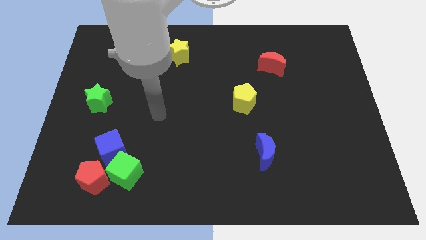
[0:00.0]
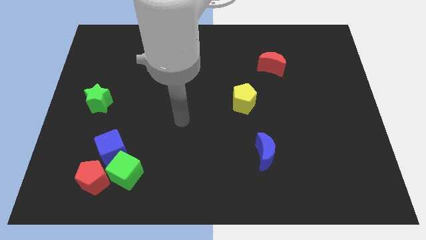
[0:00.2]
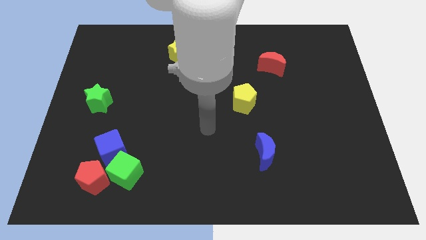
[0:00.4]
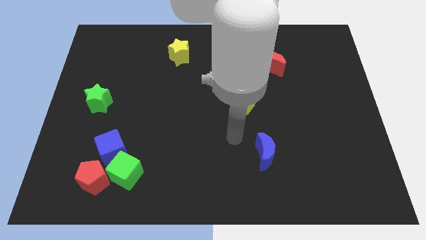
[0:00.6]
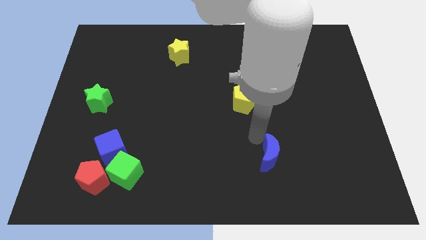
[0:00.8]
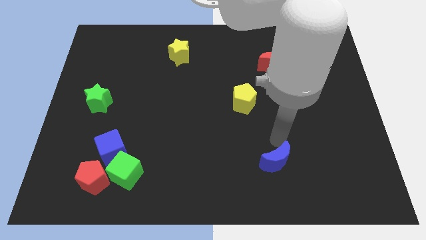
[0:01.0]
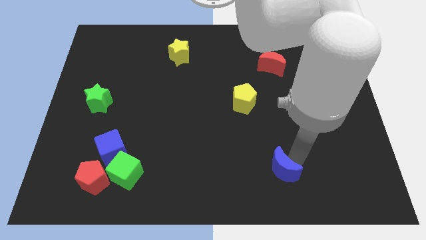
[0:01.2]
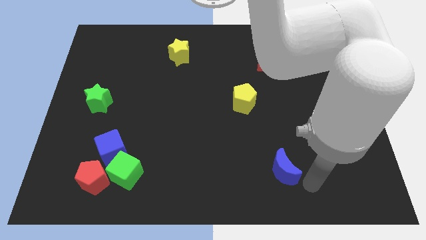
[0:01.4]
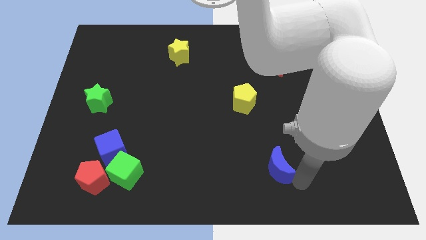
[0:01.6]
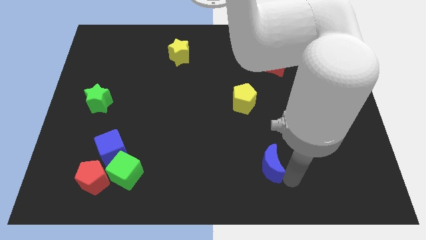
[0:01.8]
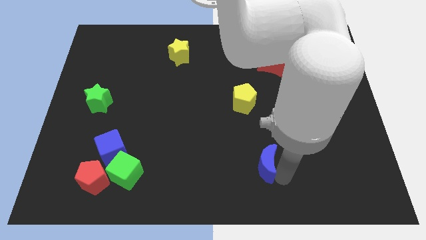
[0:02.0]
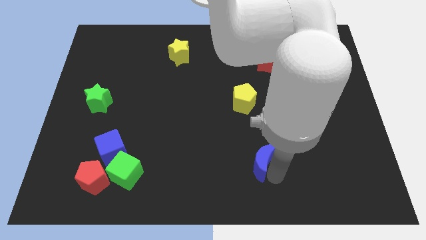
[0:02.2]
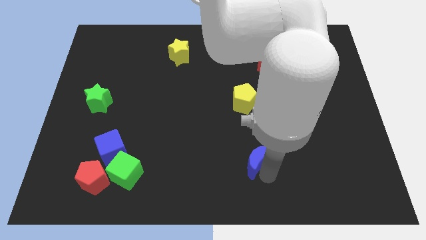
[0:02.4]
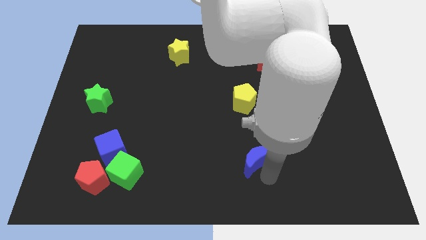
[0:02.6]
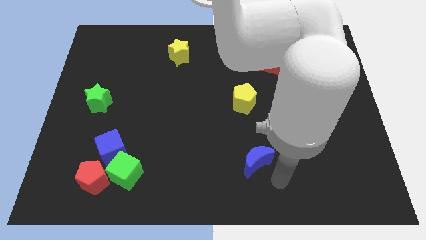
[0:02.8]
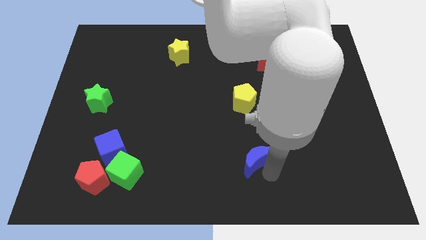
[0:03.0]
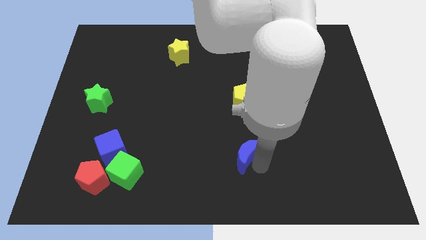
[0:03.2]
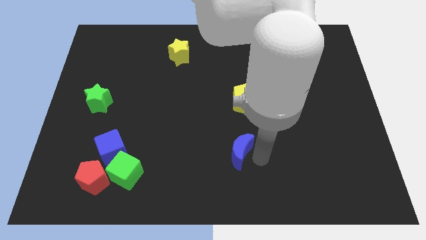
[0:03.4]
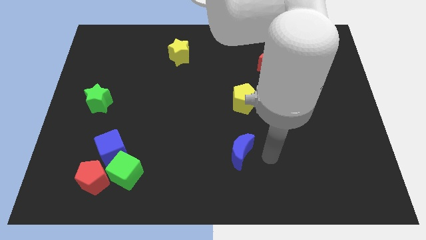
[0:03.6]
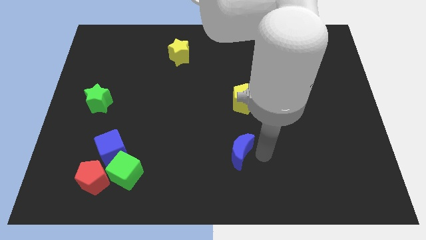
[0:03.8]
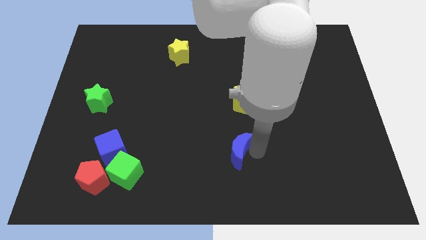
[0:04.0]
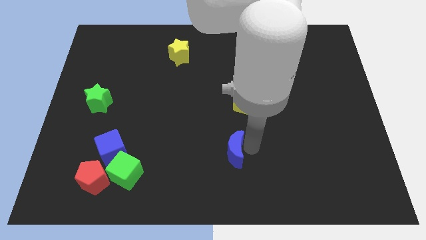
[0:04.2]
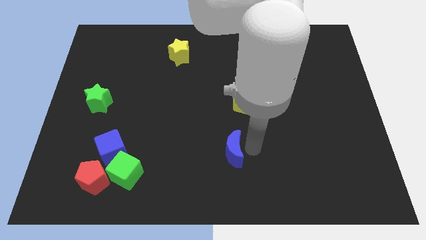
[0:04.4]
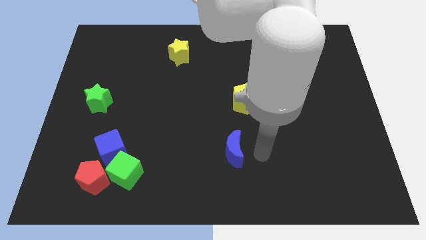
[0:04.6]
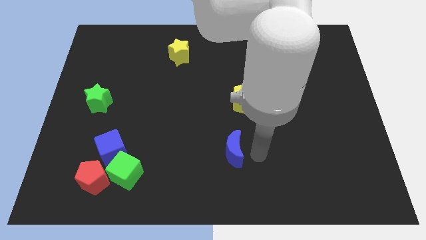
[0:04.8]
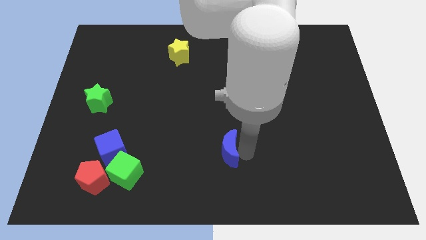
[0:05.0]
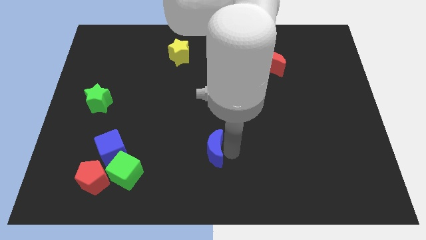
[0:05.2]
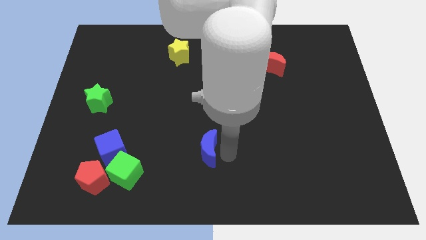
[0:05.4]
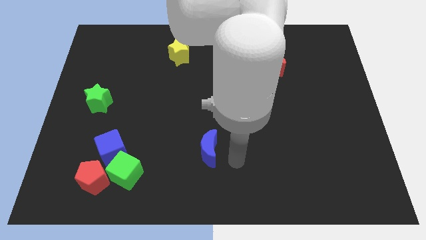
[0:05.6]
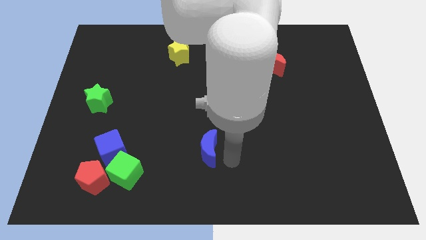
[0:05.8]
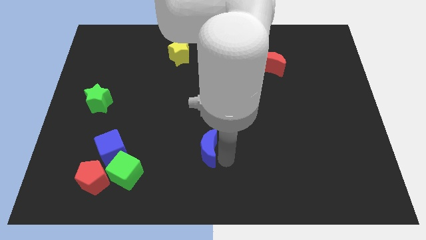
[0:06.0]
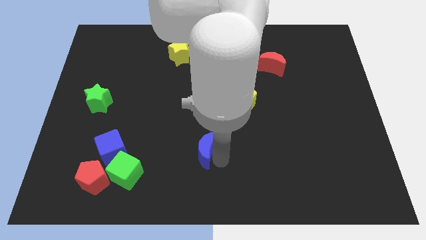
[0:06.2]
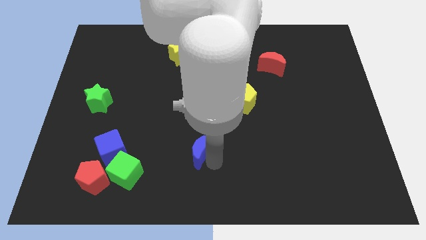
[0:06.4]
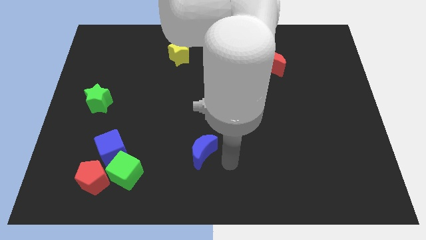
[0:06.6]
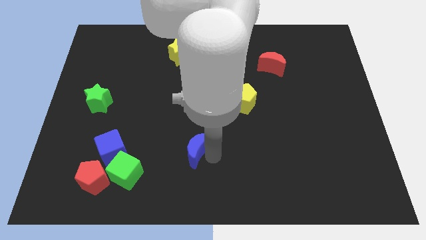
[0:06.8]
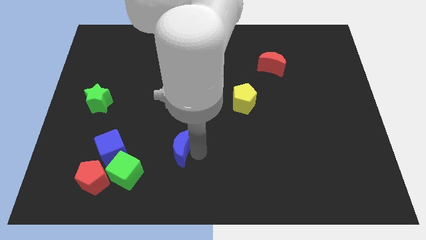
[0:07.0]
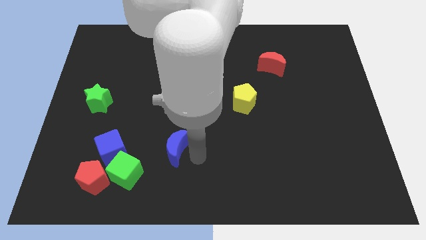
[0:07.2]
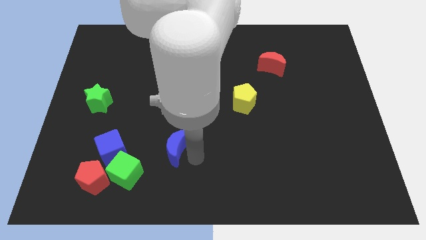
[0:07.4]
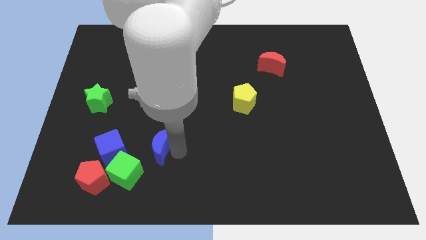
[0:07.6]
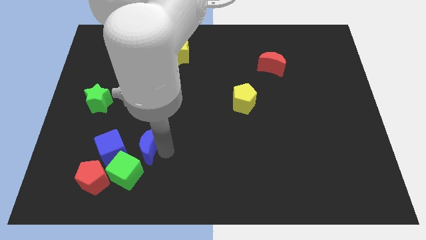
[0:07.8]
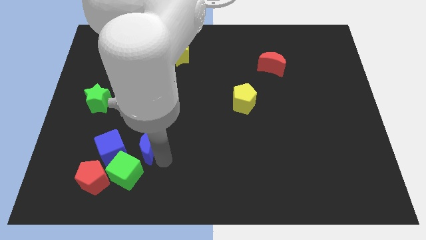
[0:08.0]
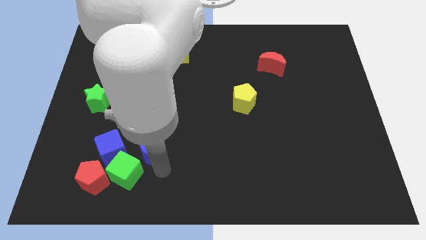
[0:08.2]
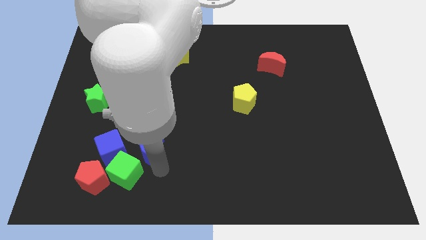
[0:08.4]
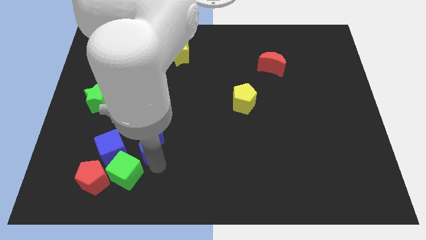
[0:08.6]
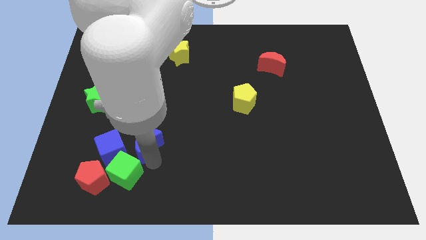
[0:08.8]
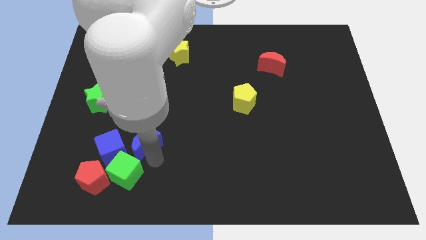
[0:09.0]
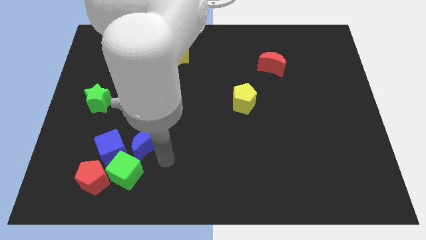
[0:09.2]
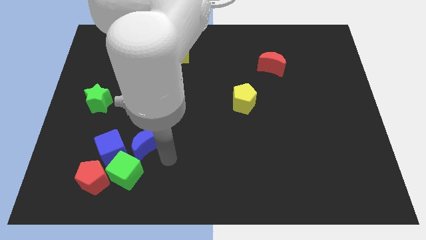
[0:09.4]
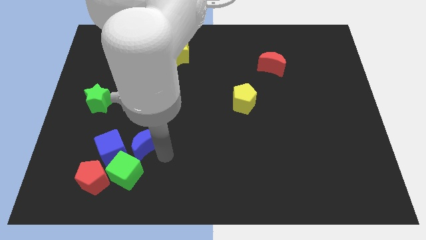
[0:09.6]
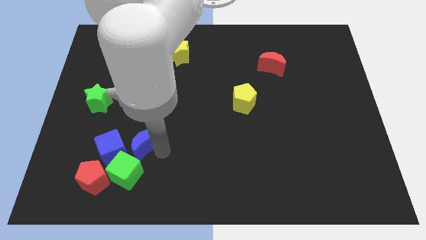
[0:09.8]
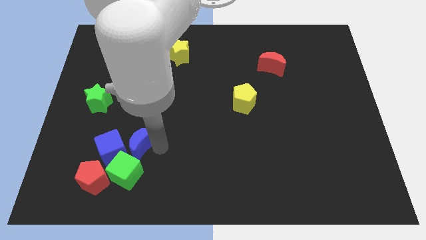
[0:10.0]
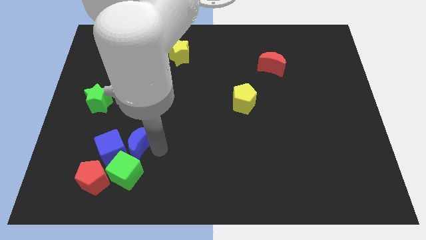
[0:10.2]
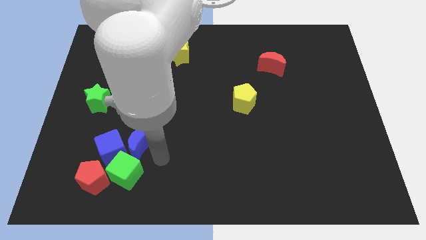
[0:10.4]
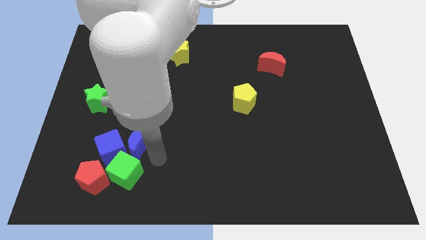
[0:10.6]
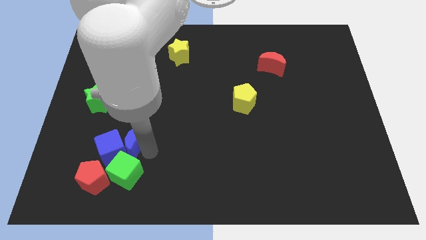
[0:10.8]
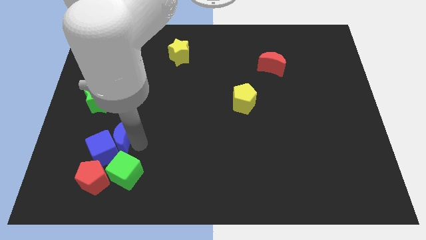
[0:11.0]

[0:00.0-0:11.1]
slide the blue moon to the top left of the green cube

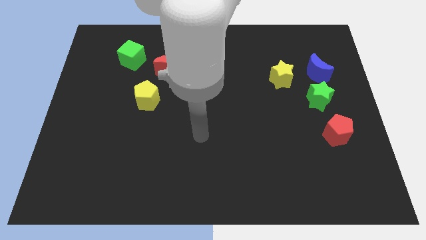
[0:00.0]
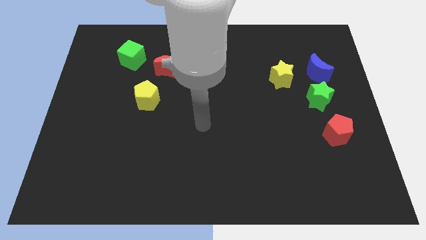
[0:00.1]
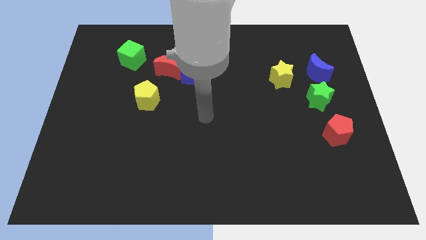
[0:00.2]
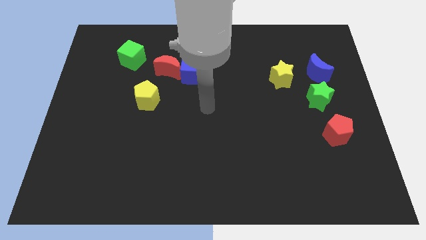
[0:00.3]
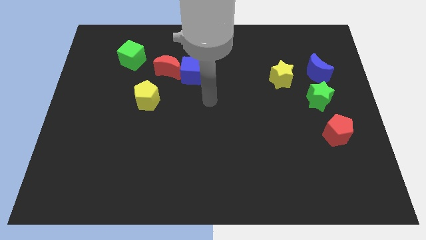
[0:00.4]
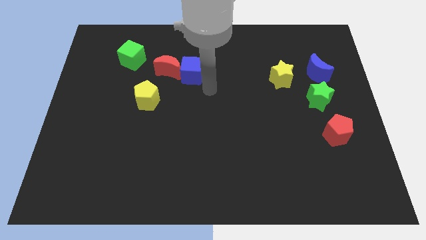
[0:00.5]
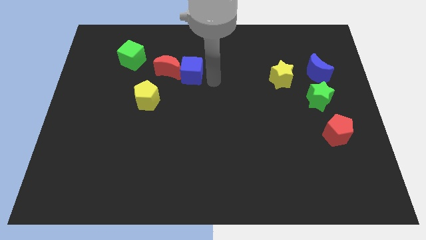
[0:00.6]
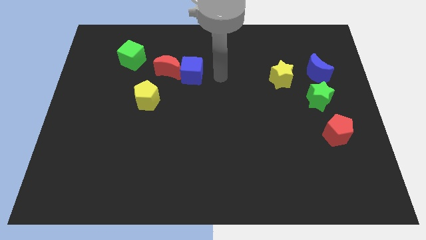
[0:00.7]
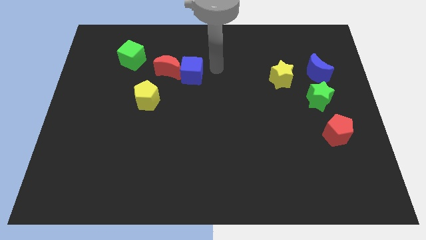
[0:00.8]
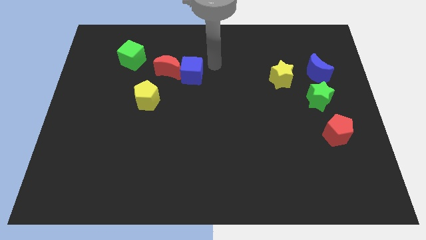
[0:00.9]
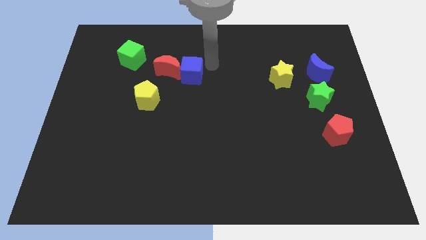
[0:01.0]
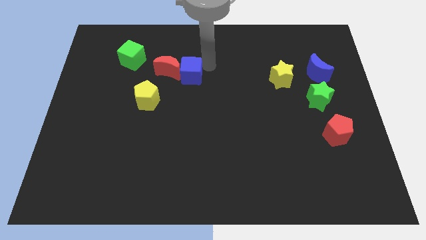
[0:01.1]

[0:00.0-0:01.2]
put the blue cube to the top right of the yellow pentagon
